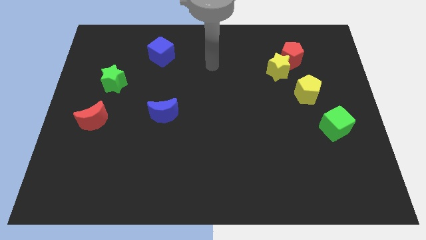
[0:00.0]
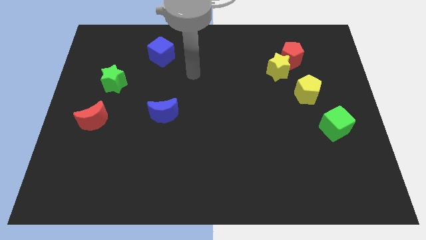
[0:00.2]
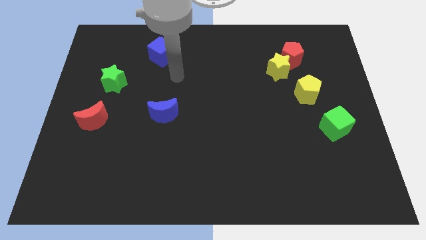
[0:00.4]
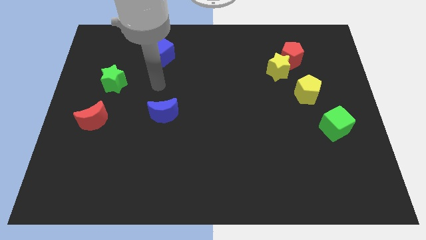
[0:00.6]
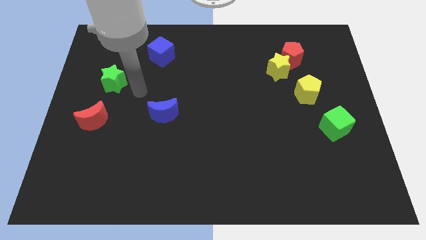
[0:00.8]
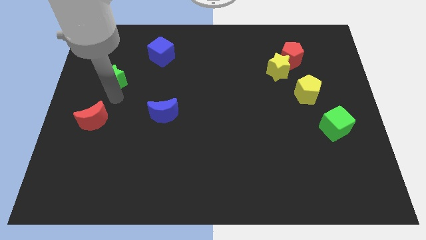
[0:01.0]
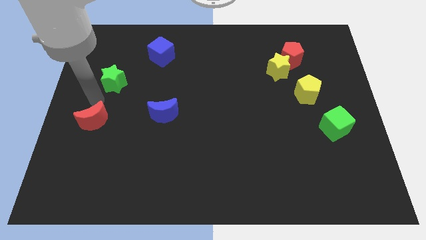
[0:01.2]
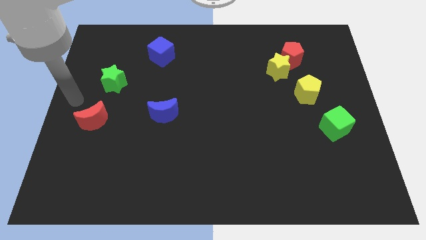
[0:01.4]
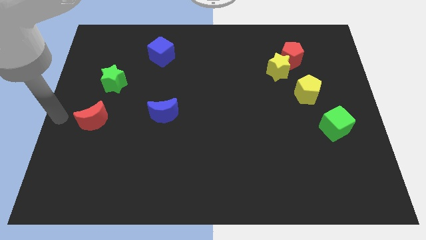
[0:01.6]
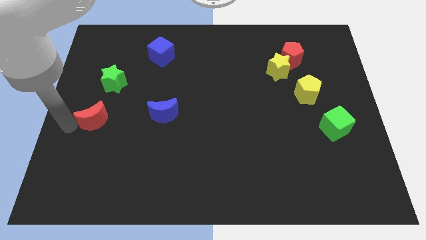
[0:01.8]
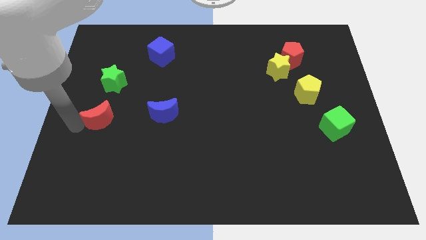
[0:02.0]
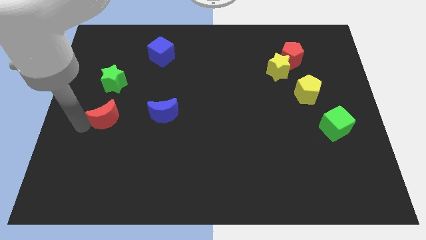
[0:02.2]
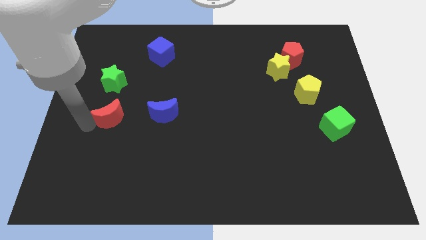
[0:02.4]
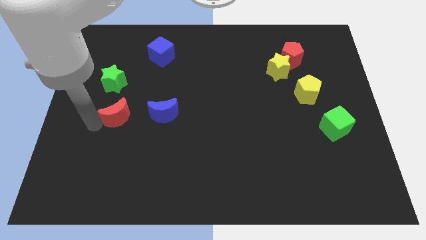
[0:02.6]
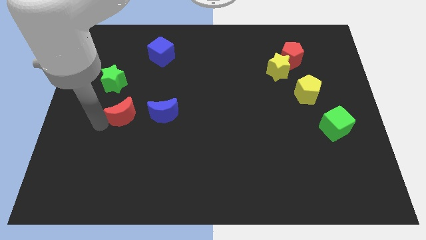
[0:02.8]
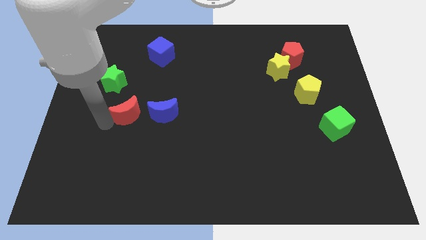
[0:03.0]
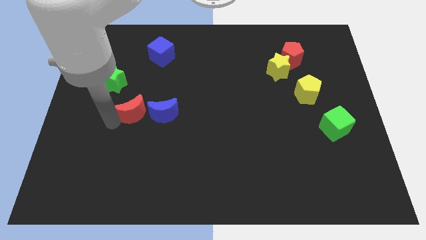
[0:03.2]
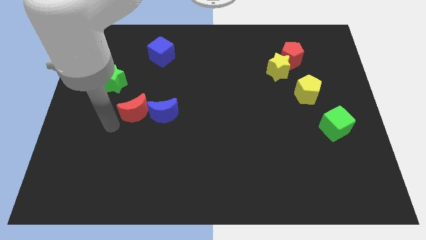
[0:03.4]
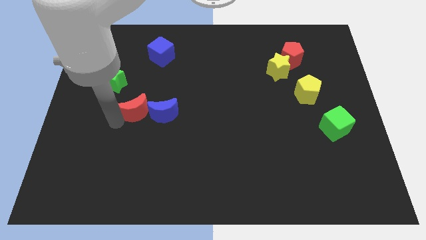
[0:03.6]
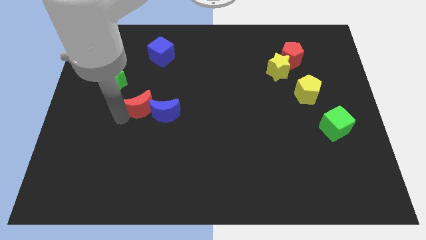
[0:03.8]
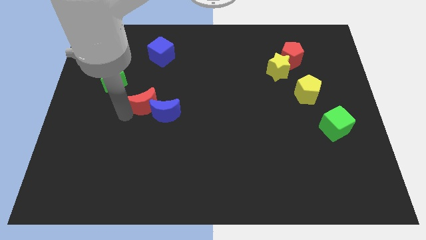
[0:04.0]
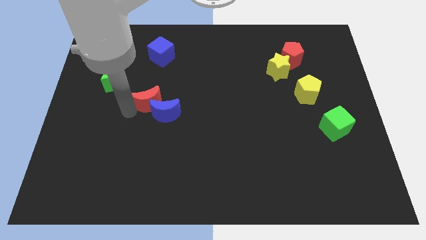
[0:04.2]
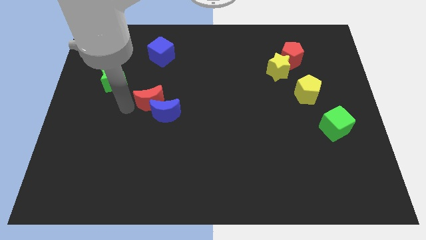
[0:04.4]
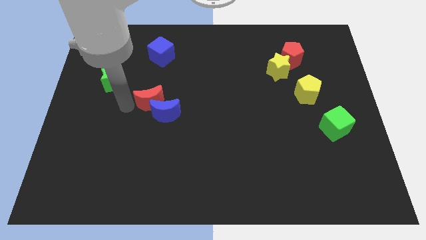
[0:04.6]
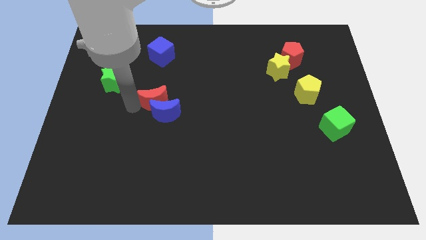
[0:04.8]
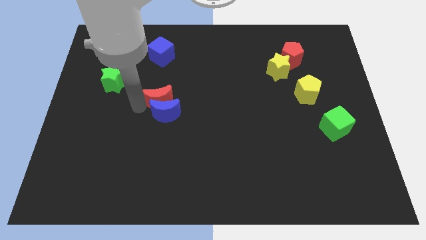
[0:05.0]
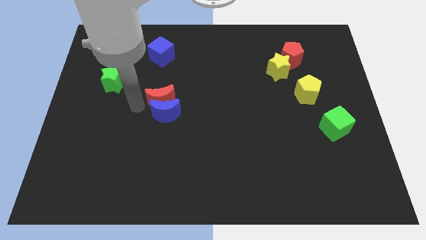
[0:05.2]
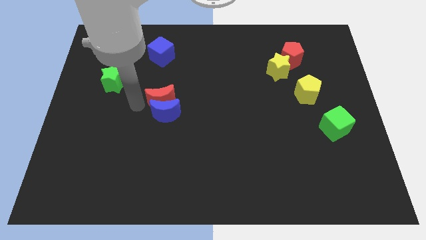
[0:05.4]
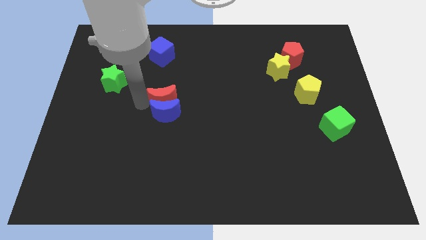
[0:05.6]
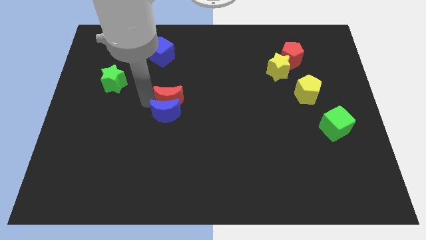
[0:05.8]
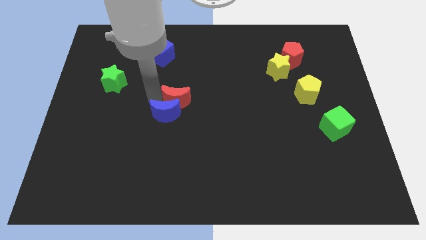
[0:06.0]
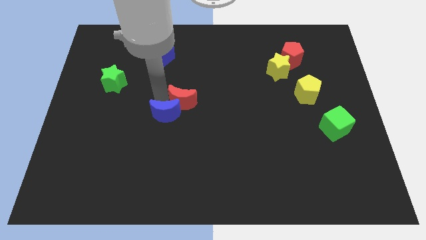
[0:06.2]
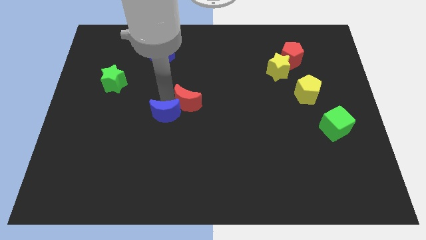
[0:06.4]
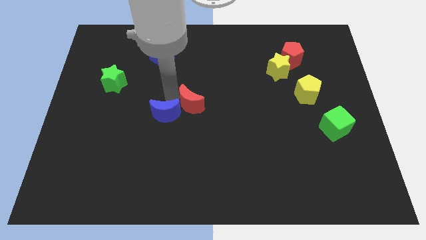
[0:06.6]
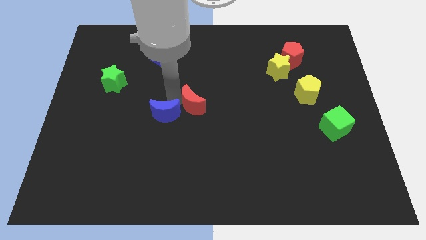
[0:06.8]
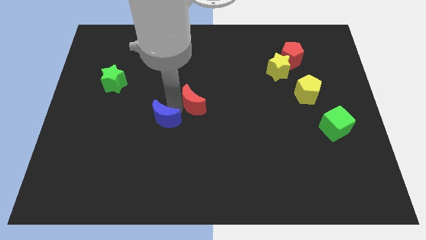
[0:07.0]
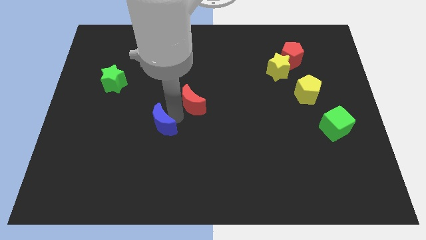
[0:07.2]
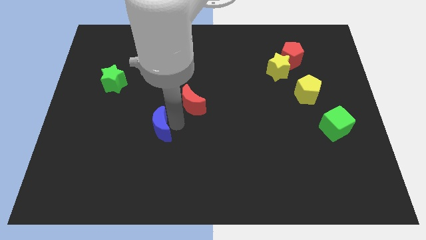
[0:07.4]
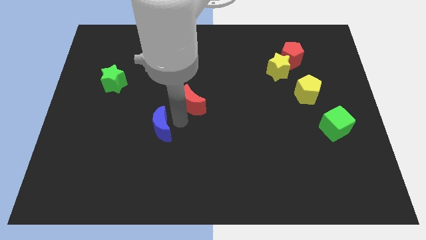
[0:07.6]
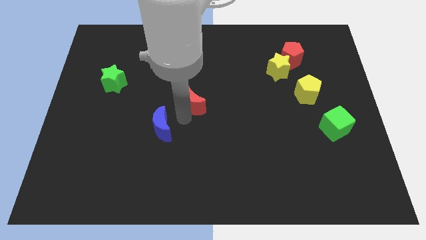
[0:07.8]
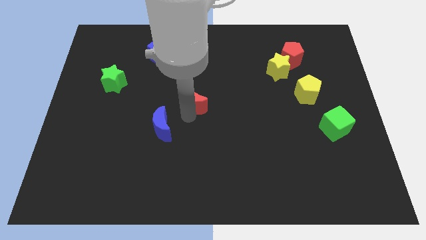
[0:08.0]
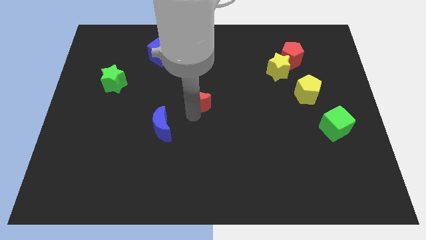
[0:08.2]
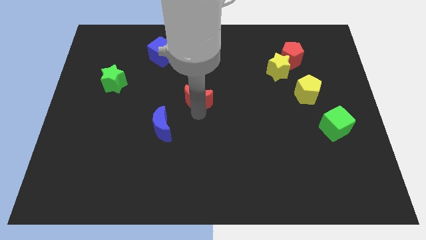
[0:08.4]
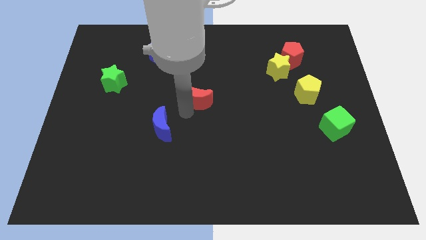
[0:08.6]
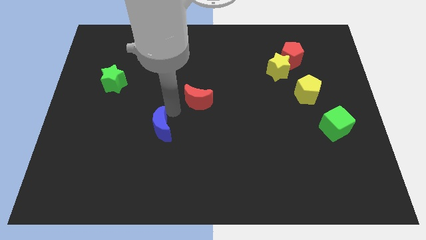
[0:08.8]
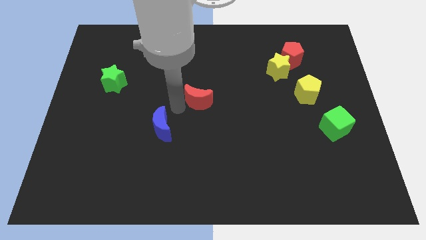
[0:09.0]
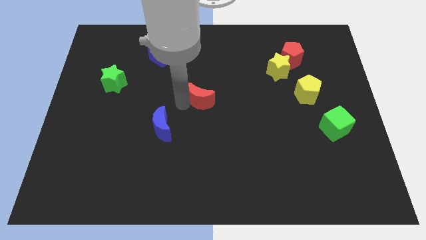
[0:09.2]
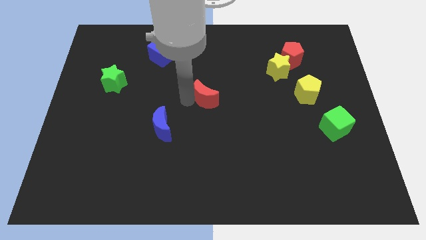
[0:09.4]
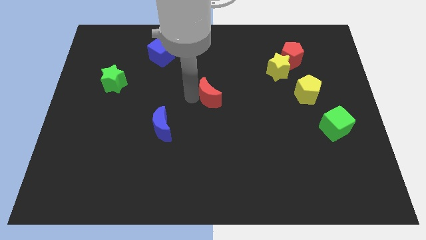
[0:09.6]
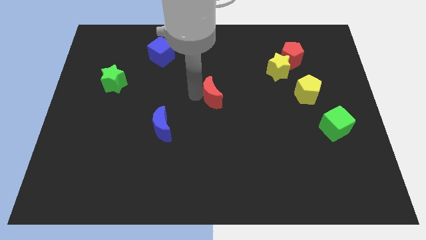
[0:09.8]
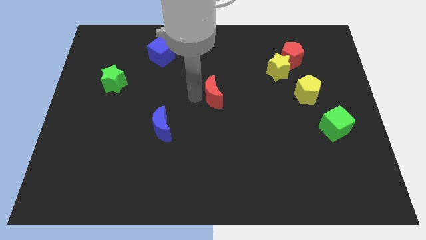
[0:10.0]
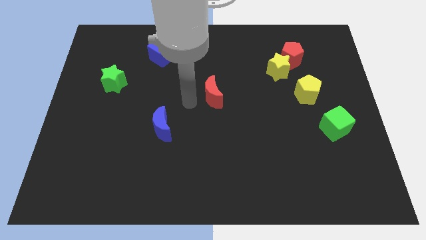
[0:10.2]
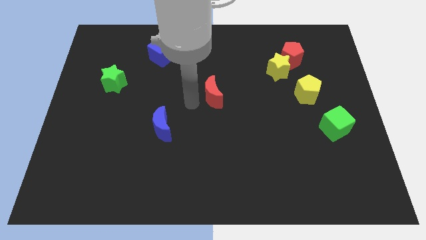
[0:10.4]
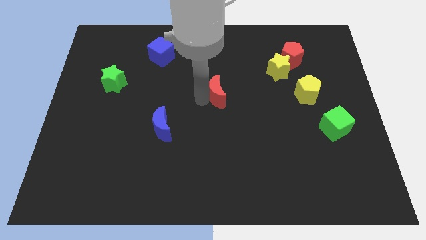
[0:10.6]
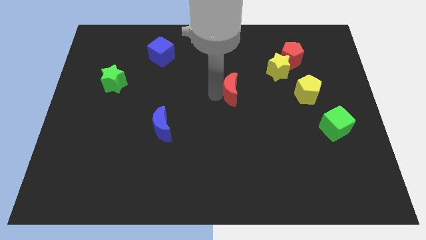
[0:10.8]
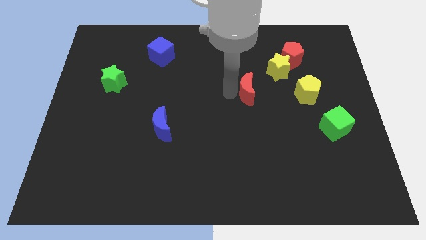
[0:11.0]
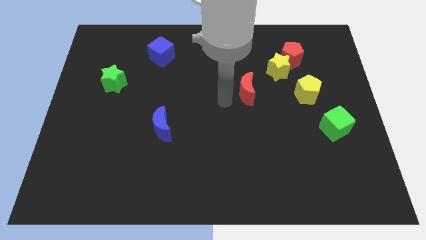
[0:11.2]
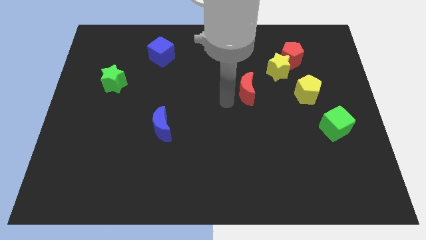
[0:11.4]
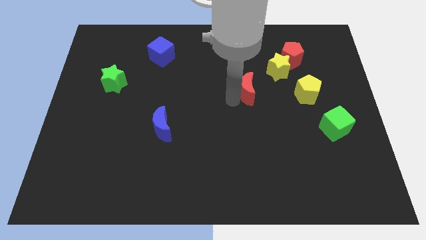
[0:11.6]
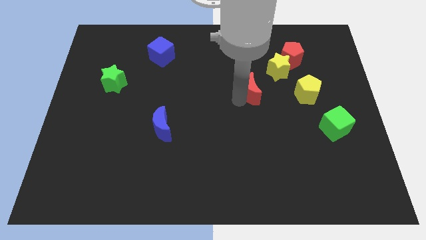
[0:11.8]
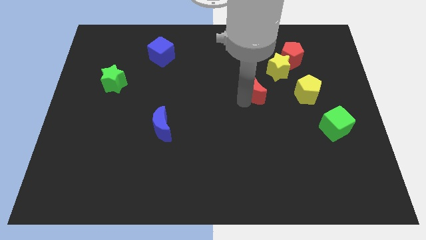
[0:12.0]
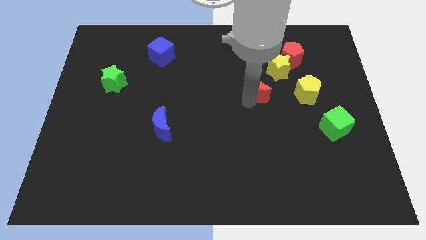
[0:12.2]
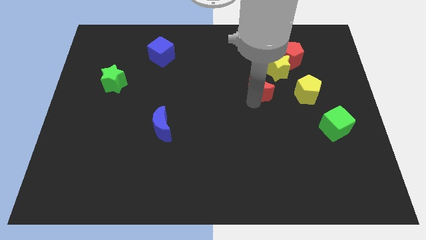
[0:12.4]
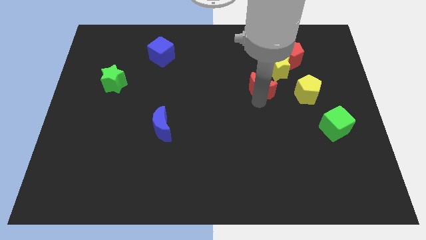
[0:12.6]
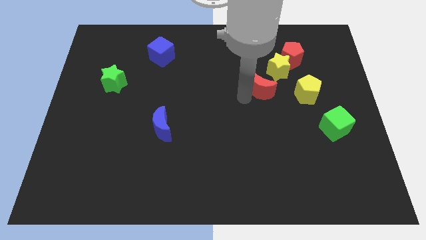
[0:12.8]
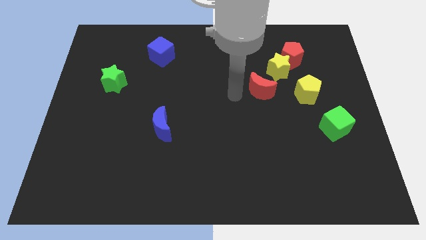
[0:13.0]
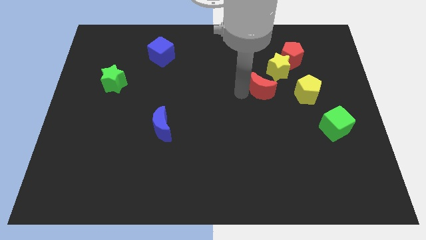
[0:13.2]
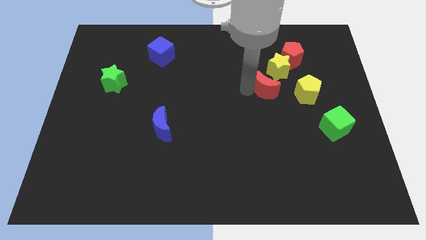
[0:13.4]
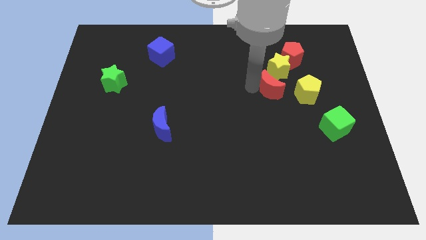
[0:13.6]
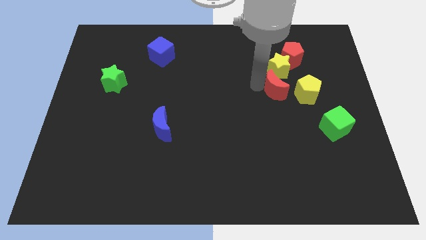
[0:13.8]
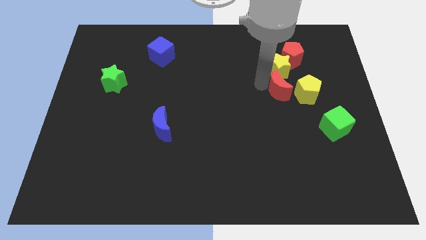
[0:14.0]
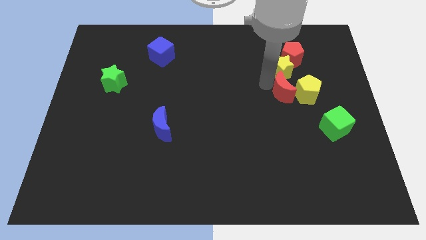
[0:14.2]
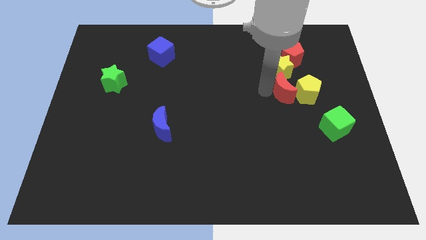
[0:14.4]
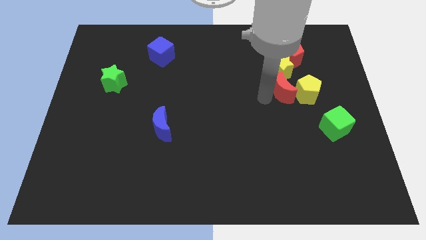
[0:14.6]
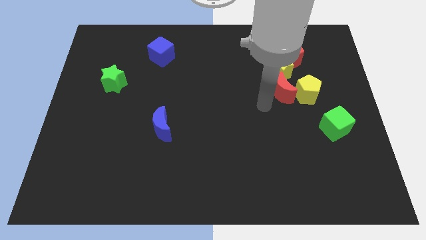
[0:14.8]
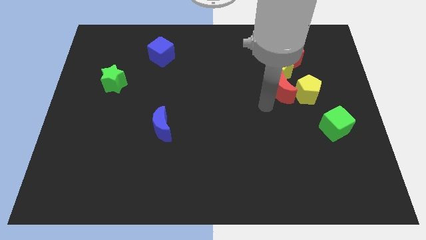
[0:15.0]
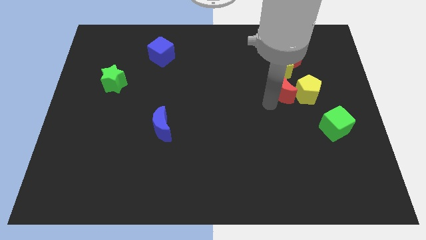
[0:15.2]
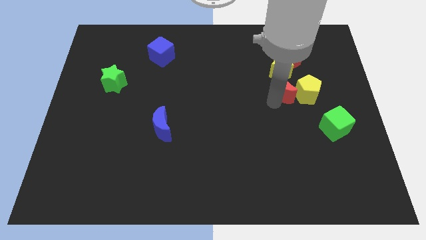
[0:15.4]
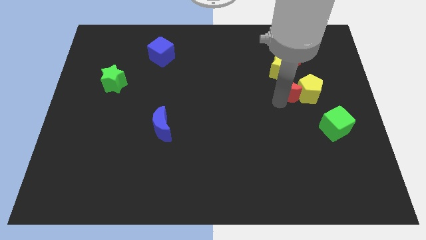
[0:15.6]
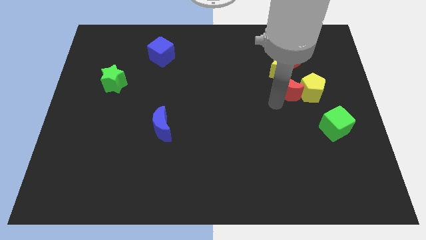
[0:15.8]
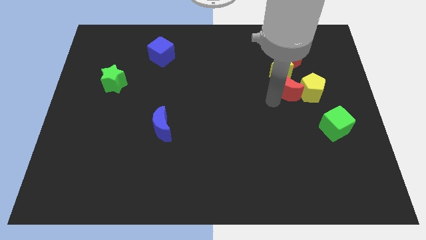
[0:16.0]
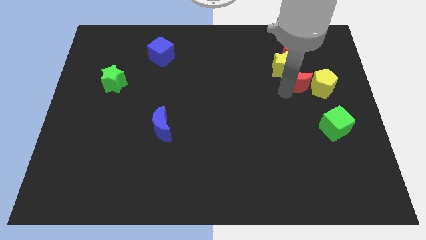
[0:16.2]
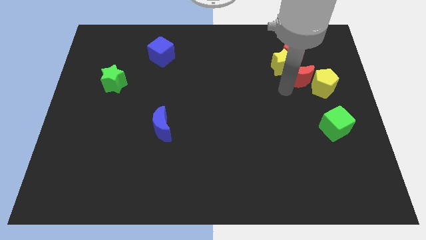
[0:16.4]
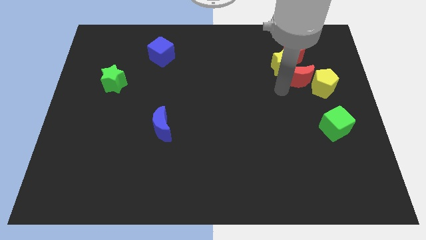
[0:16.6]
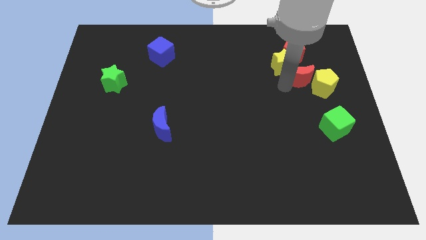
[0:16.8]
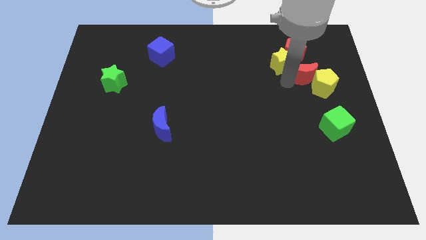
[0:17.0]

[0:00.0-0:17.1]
slide the red moon diagonally down and to the right of the red pentagon
